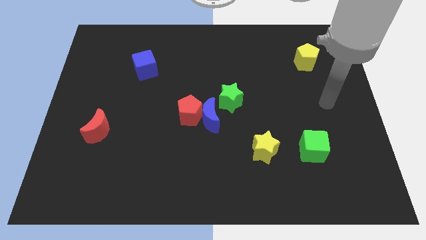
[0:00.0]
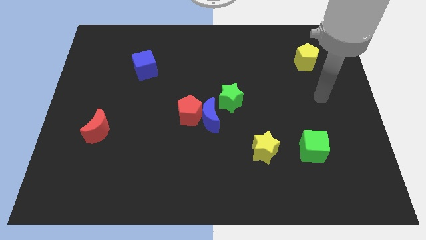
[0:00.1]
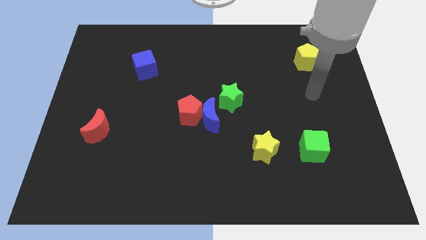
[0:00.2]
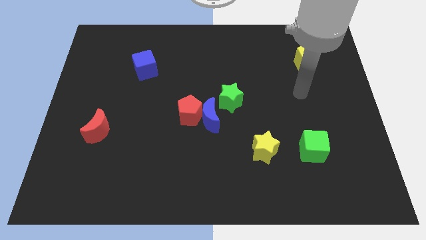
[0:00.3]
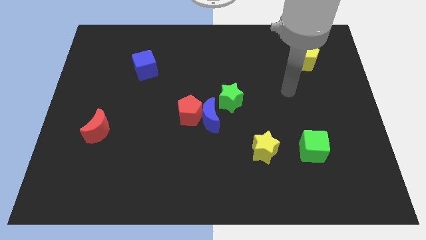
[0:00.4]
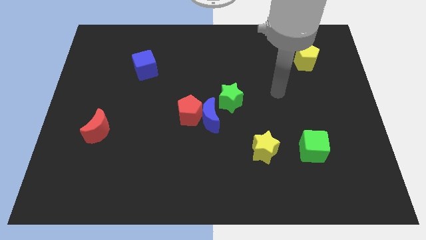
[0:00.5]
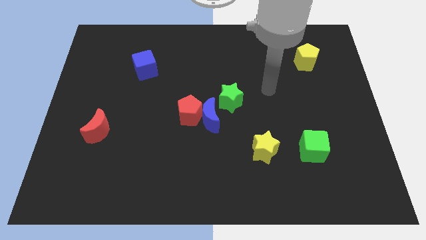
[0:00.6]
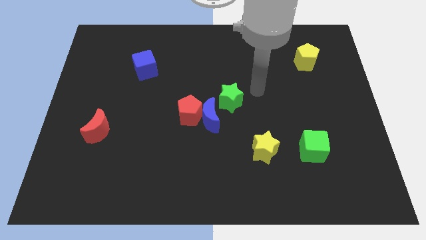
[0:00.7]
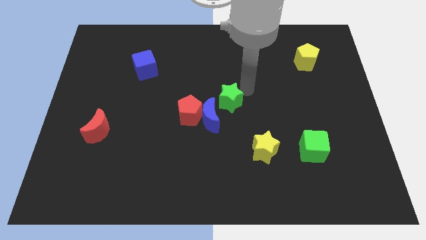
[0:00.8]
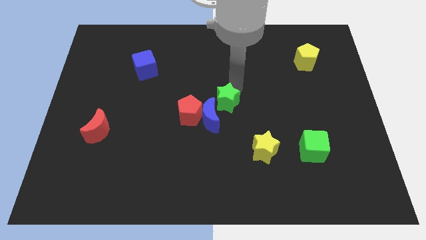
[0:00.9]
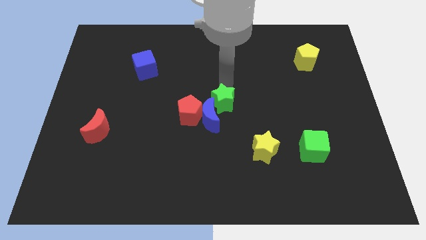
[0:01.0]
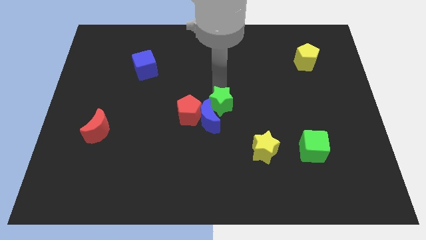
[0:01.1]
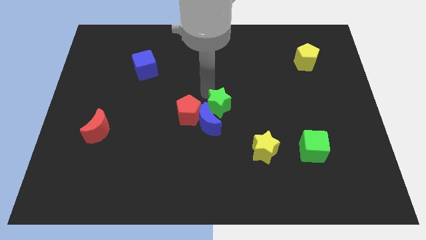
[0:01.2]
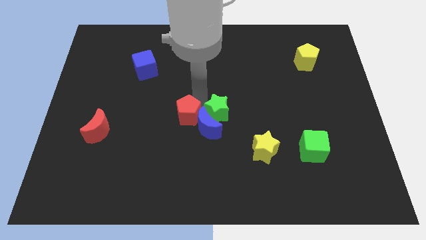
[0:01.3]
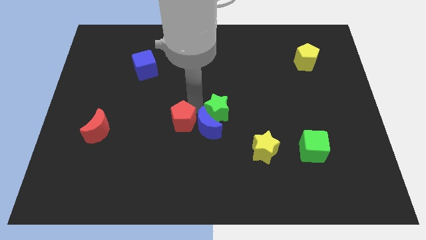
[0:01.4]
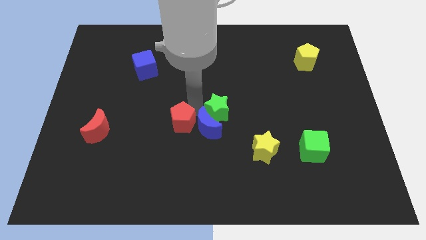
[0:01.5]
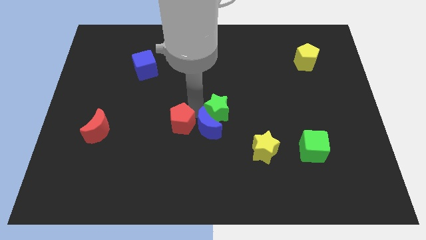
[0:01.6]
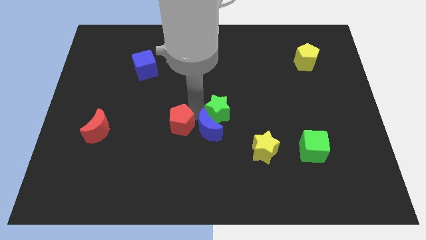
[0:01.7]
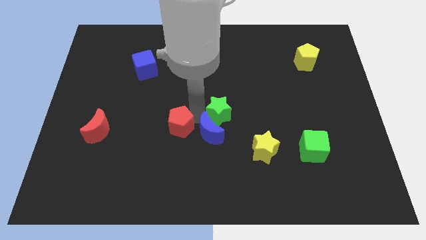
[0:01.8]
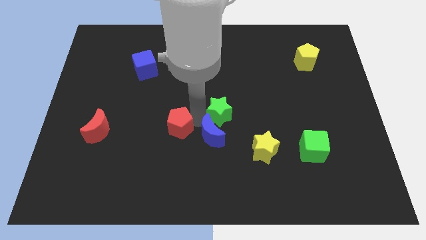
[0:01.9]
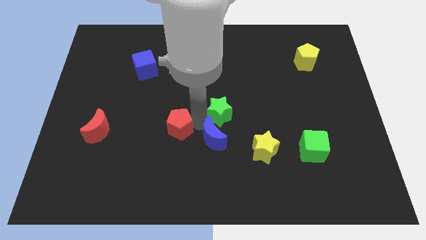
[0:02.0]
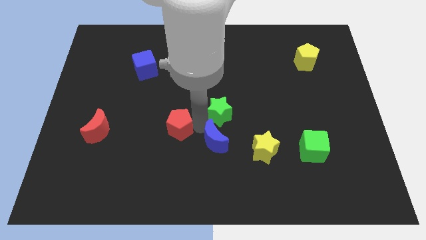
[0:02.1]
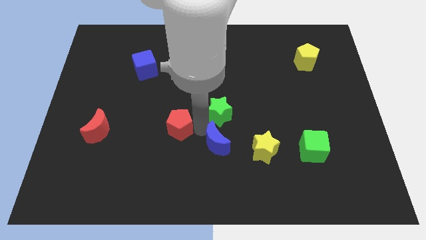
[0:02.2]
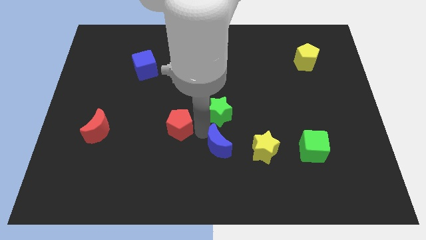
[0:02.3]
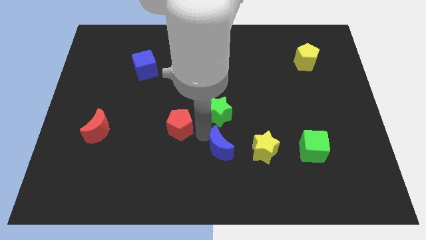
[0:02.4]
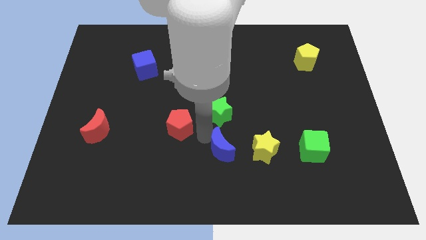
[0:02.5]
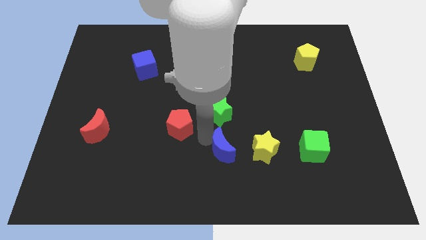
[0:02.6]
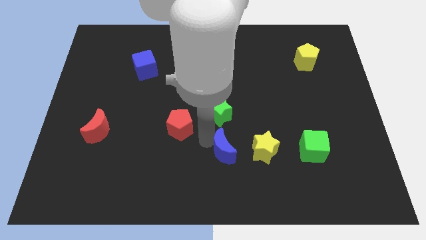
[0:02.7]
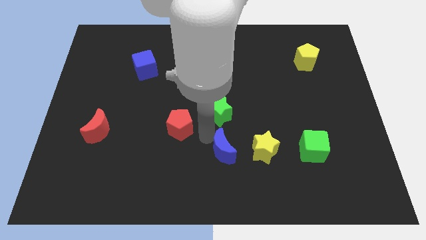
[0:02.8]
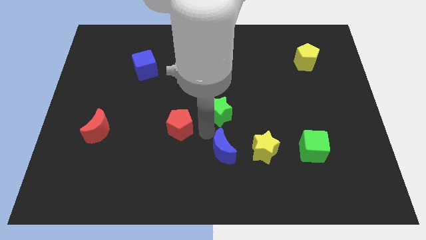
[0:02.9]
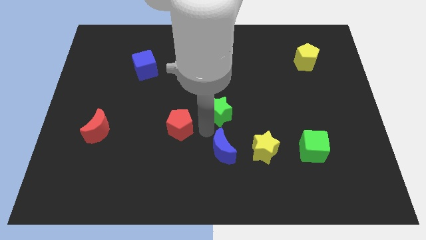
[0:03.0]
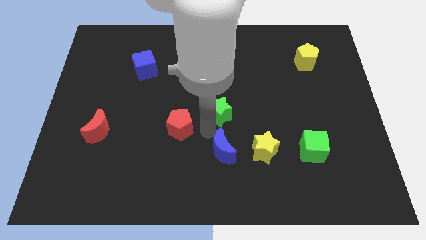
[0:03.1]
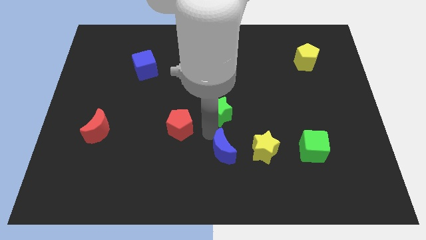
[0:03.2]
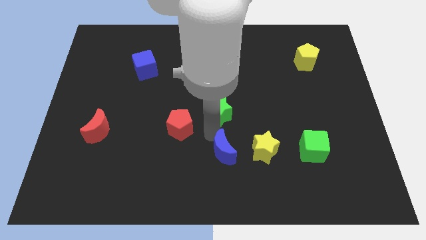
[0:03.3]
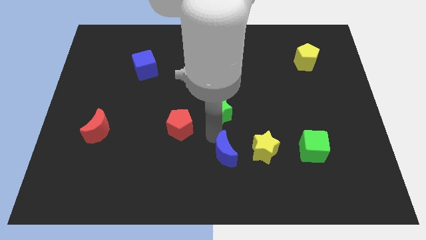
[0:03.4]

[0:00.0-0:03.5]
separate the blue moon from the red pentagon and green star

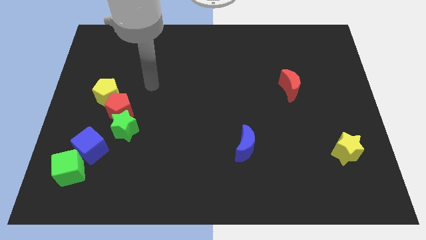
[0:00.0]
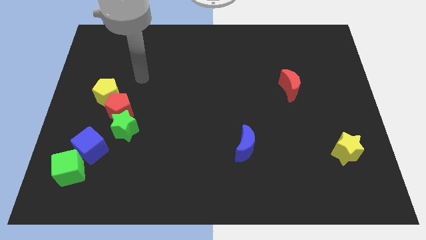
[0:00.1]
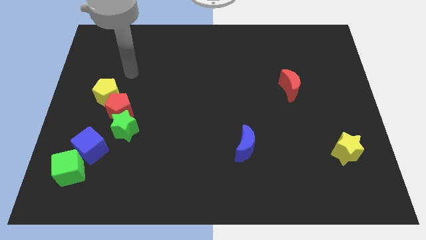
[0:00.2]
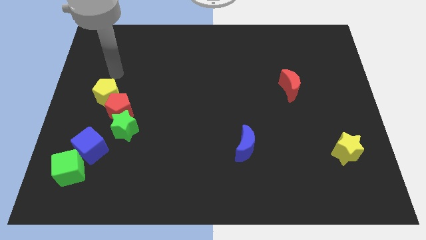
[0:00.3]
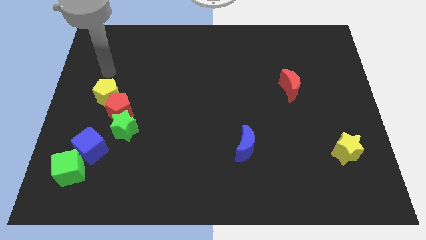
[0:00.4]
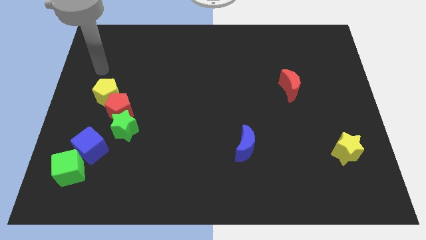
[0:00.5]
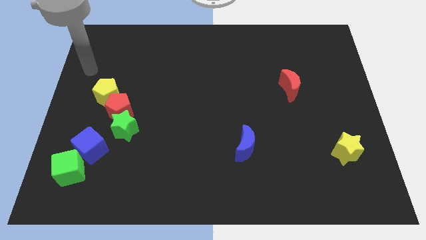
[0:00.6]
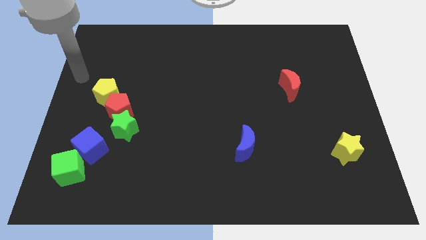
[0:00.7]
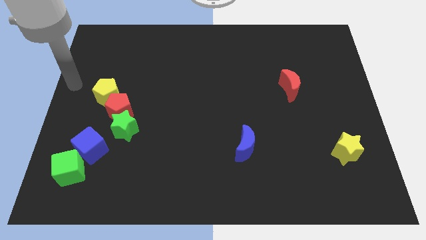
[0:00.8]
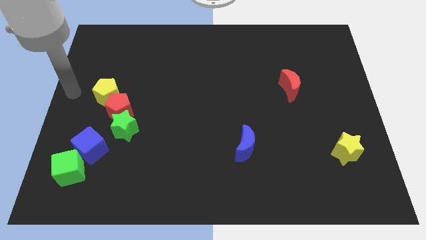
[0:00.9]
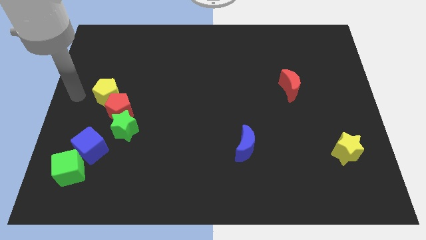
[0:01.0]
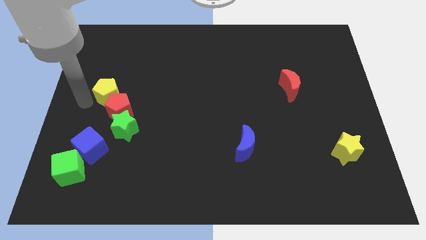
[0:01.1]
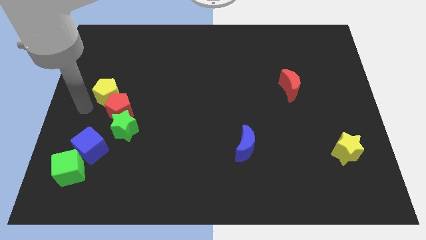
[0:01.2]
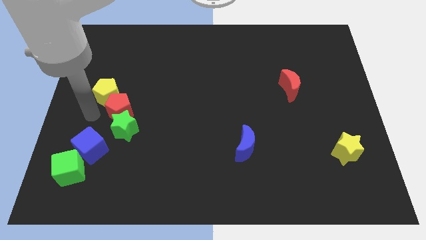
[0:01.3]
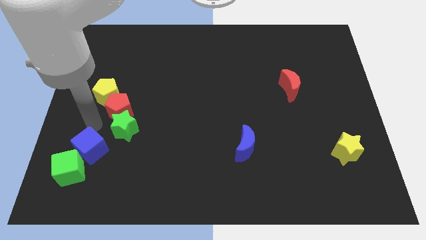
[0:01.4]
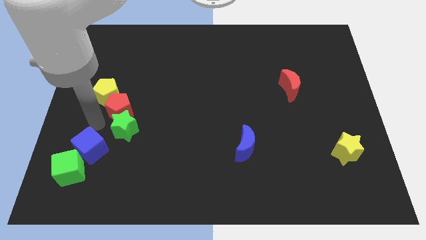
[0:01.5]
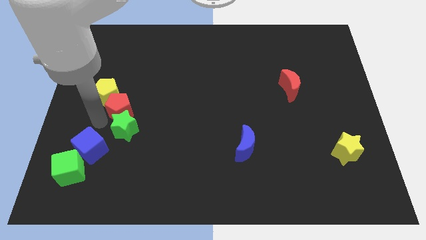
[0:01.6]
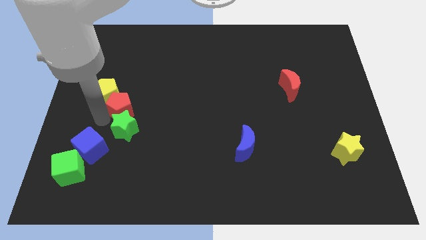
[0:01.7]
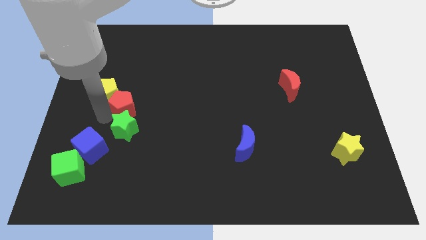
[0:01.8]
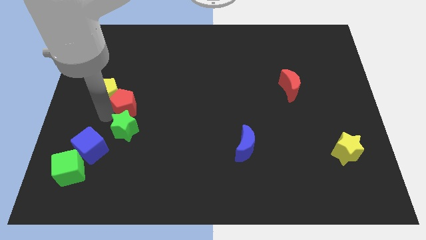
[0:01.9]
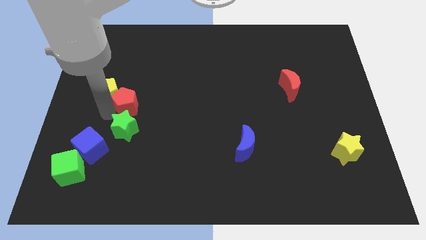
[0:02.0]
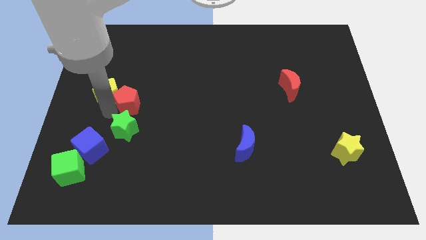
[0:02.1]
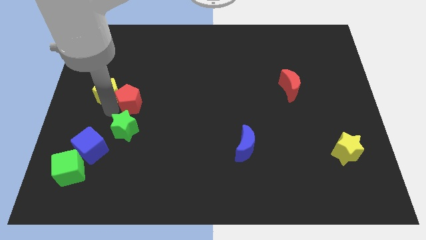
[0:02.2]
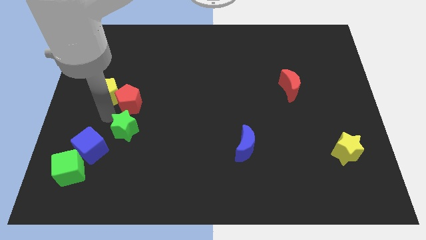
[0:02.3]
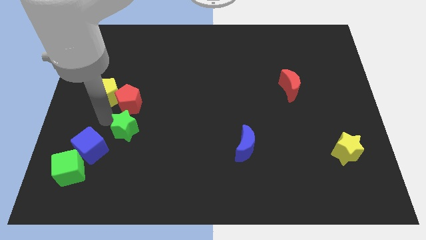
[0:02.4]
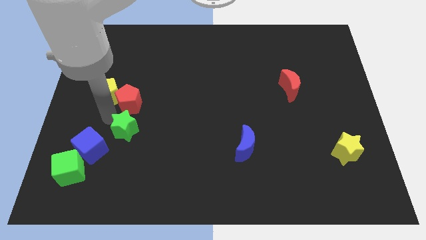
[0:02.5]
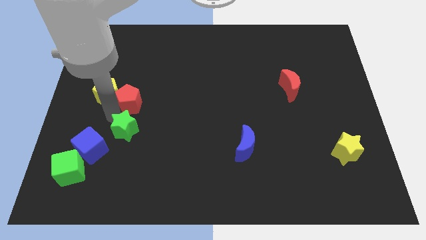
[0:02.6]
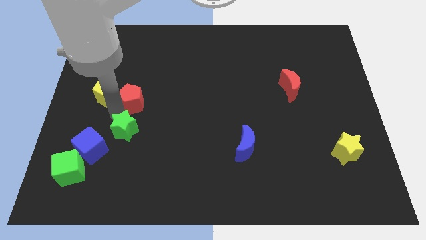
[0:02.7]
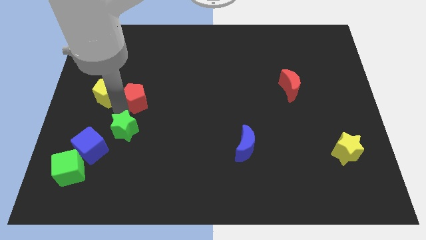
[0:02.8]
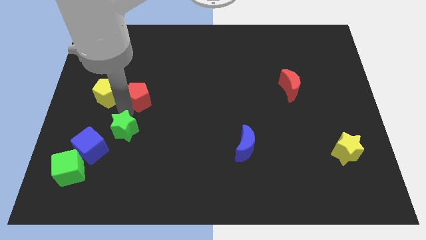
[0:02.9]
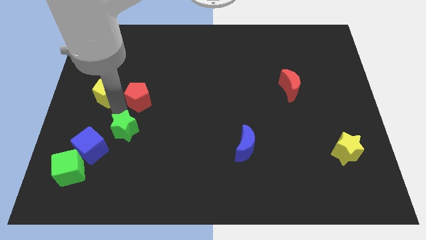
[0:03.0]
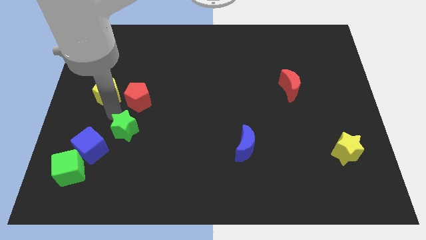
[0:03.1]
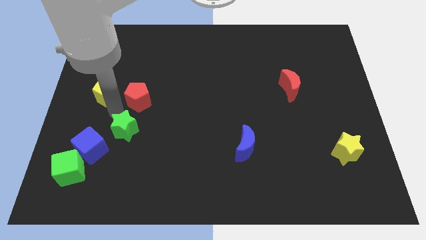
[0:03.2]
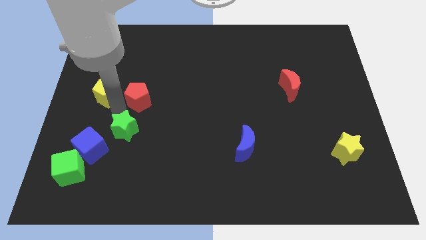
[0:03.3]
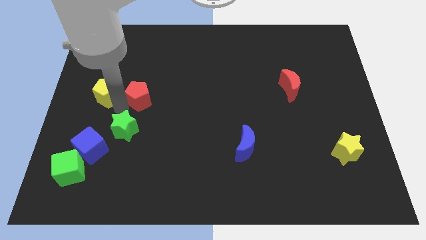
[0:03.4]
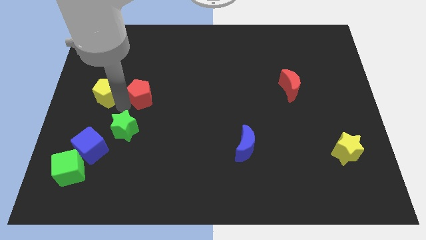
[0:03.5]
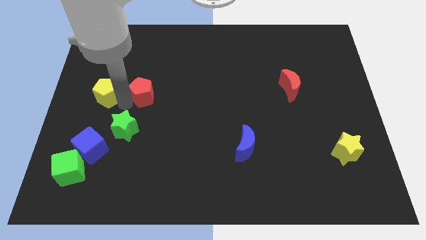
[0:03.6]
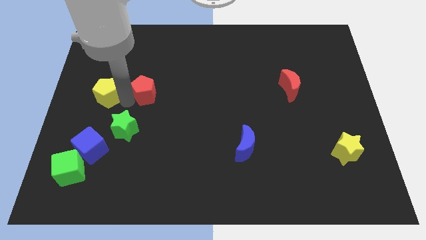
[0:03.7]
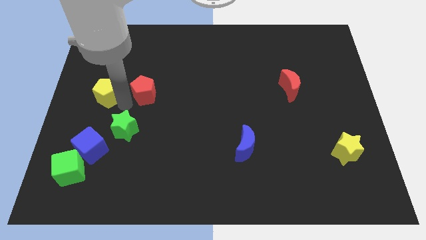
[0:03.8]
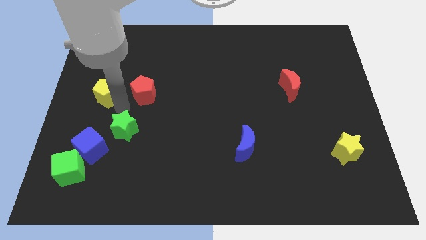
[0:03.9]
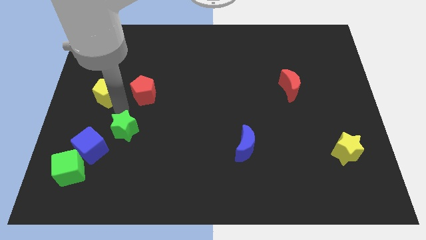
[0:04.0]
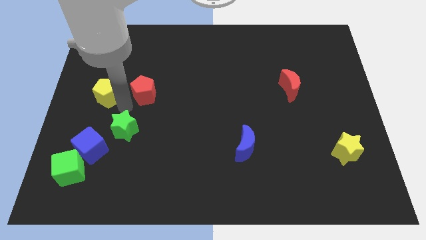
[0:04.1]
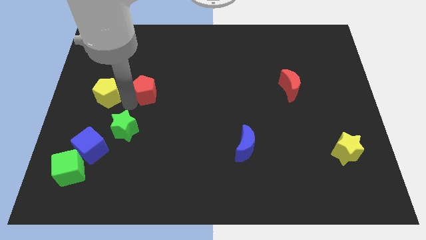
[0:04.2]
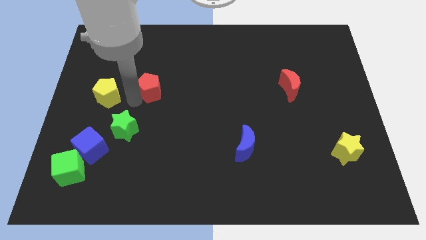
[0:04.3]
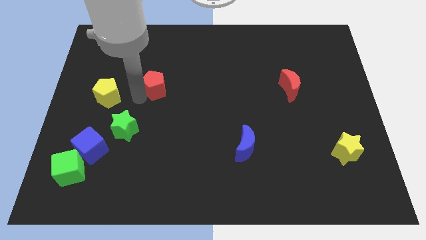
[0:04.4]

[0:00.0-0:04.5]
move the red pentagon away from the green star and yellow pentagon

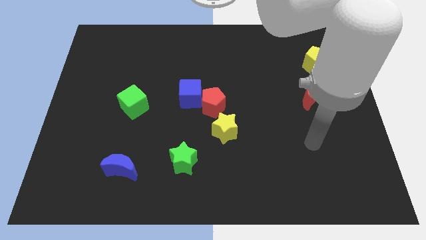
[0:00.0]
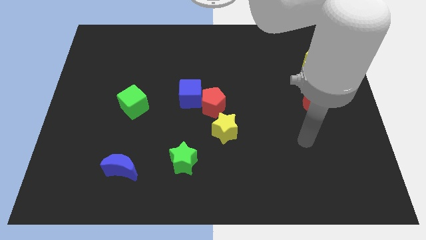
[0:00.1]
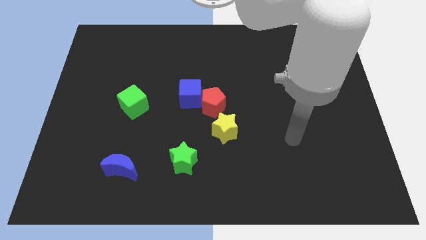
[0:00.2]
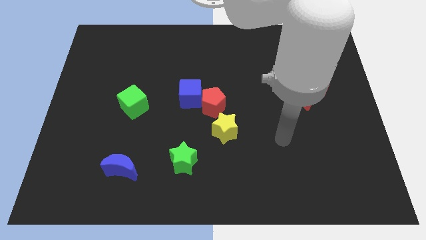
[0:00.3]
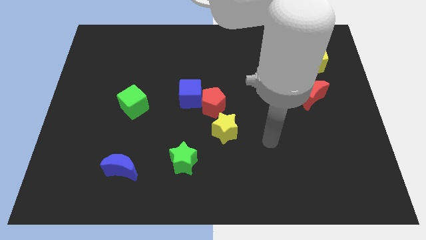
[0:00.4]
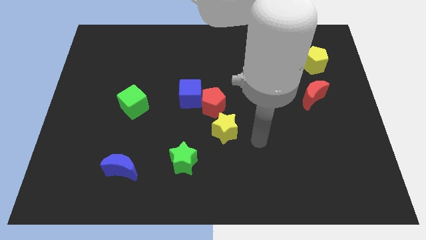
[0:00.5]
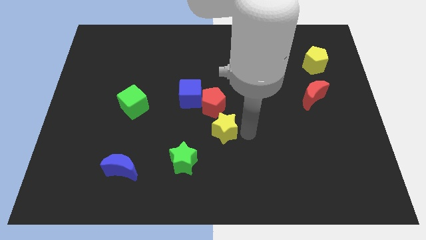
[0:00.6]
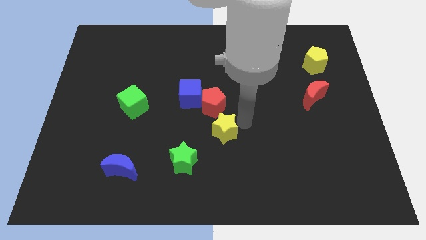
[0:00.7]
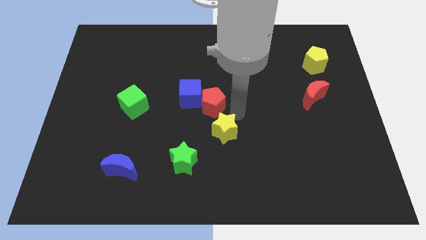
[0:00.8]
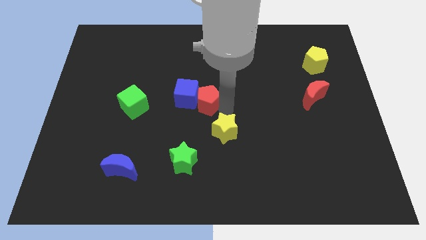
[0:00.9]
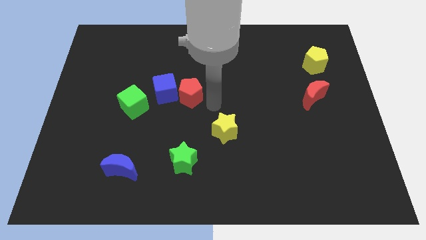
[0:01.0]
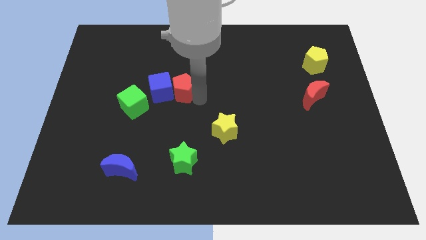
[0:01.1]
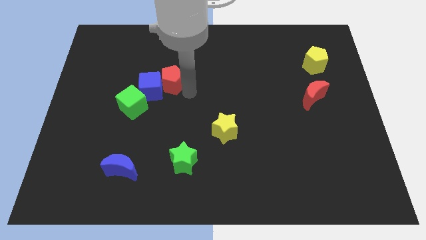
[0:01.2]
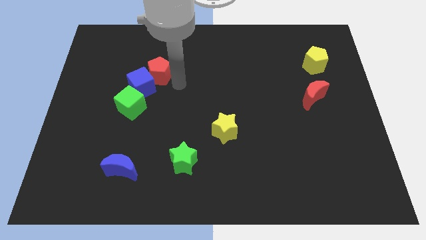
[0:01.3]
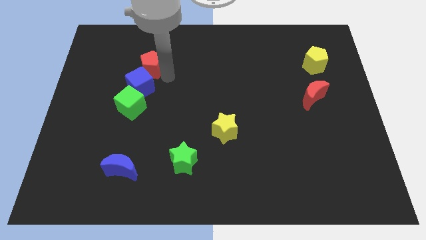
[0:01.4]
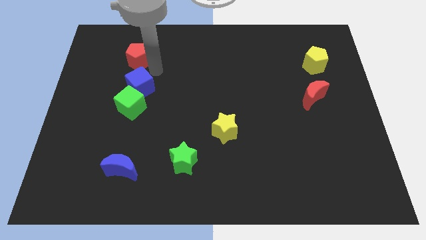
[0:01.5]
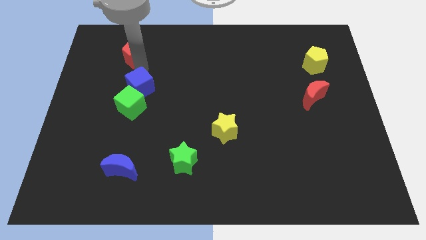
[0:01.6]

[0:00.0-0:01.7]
separate the blue cube from the red pentagon
